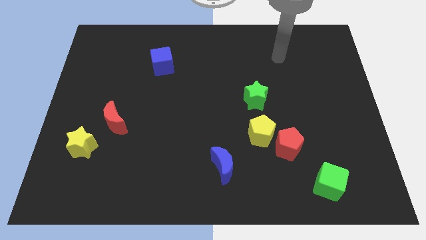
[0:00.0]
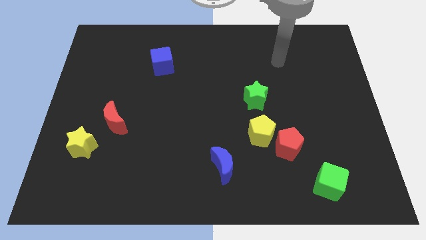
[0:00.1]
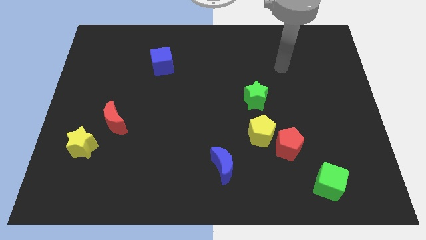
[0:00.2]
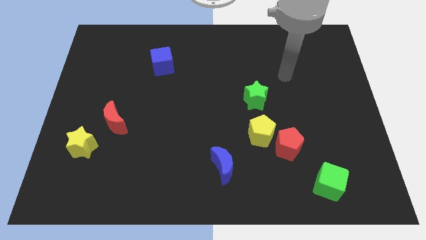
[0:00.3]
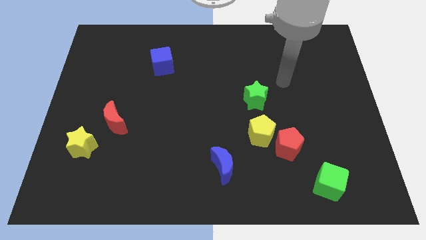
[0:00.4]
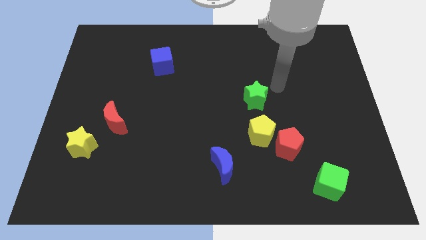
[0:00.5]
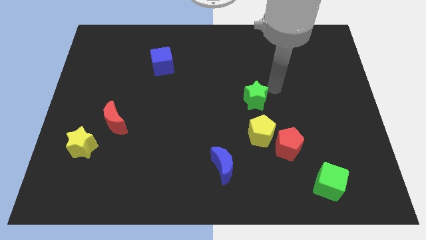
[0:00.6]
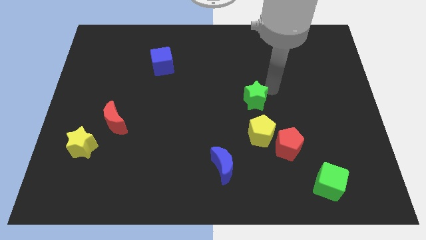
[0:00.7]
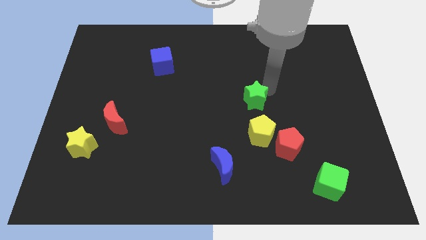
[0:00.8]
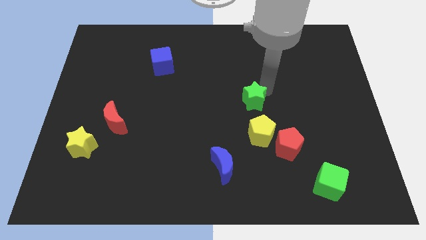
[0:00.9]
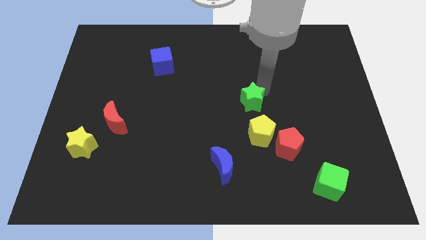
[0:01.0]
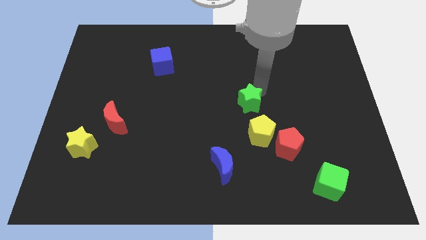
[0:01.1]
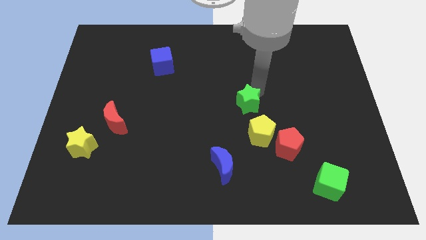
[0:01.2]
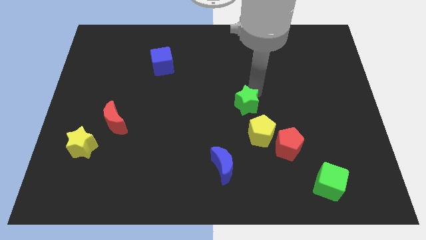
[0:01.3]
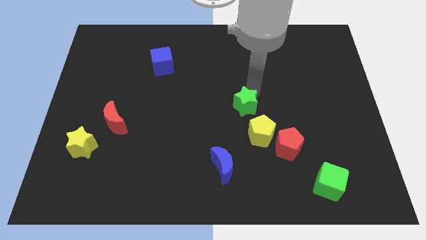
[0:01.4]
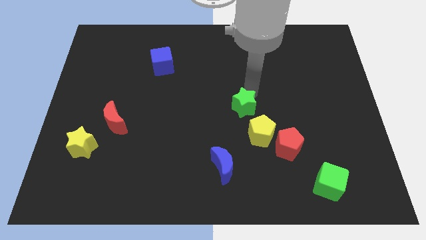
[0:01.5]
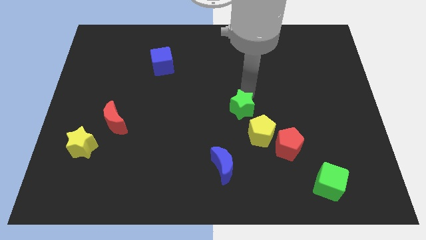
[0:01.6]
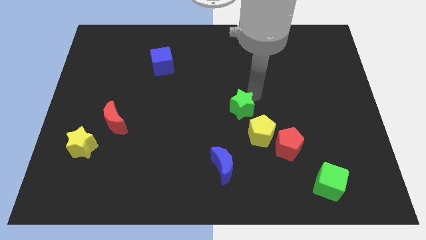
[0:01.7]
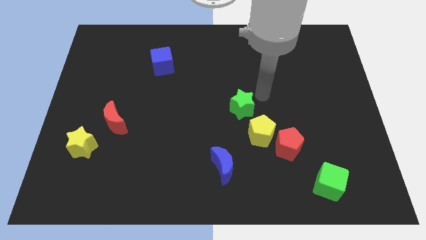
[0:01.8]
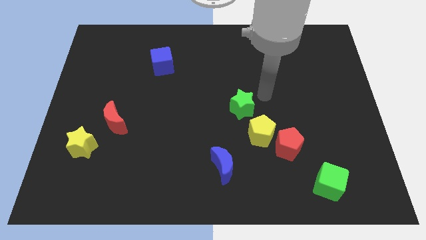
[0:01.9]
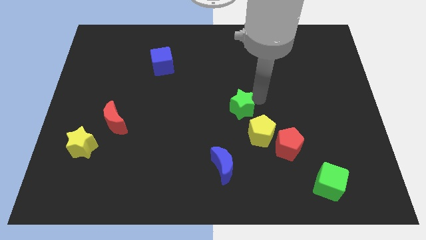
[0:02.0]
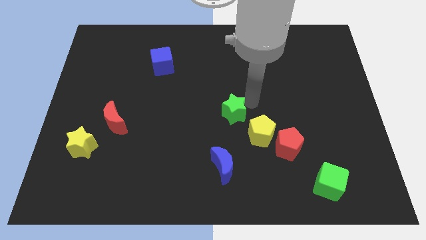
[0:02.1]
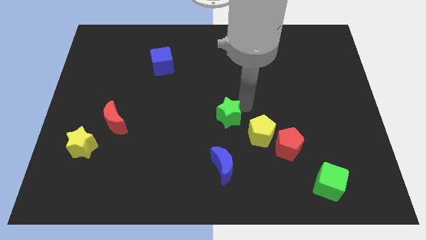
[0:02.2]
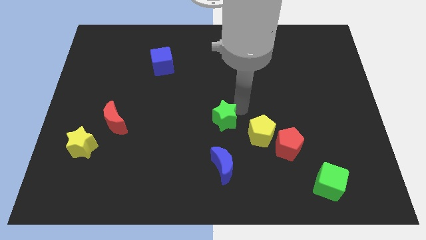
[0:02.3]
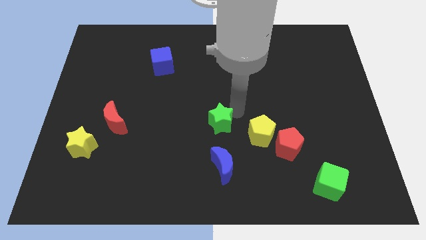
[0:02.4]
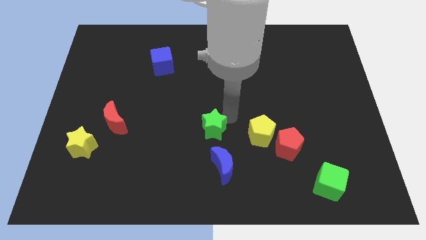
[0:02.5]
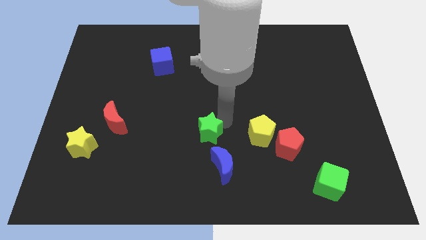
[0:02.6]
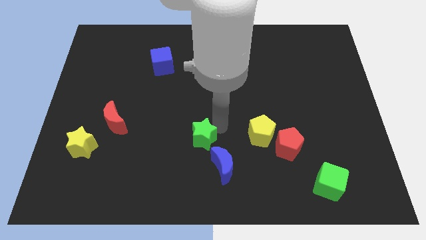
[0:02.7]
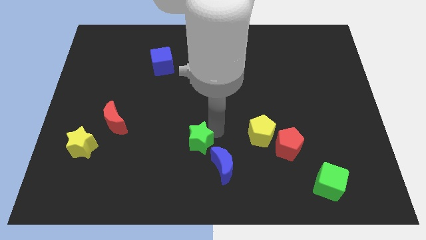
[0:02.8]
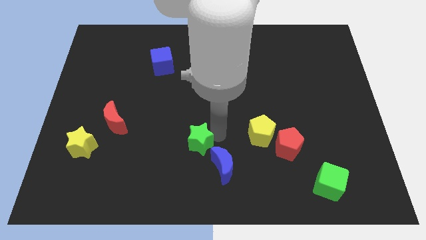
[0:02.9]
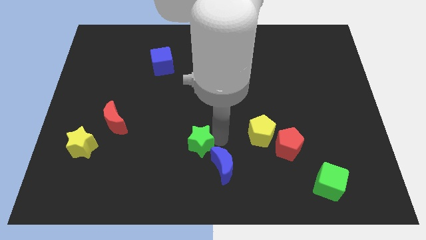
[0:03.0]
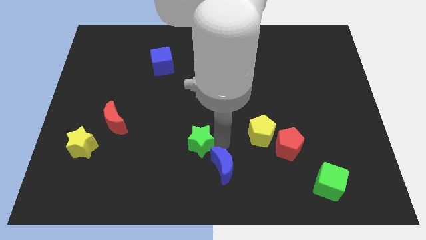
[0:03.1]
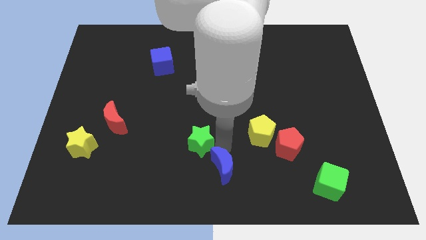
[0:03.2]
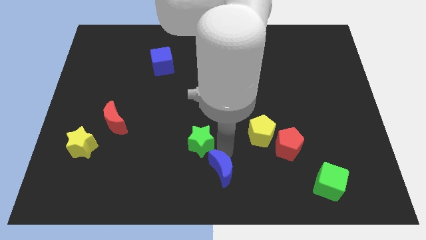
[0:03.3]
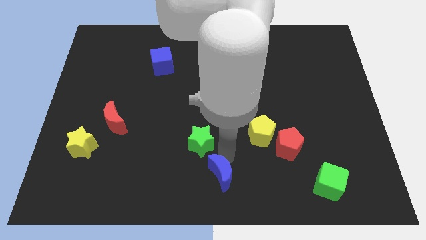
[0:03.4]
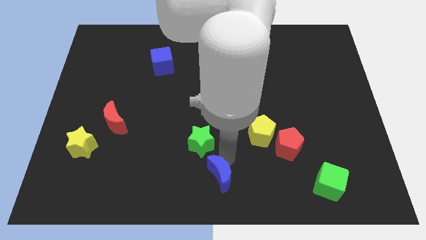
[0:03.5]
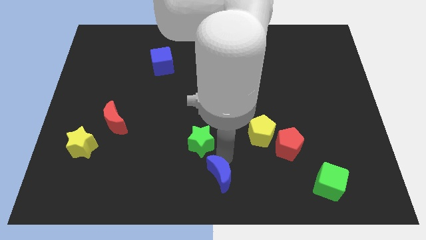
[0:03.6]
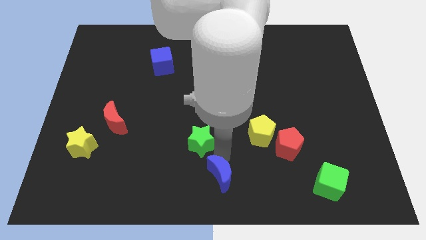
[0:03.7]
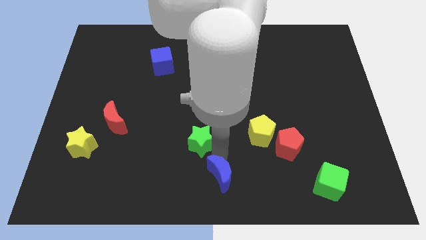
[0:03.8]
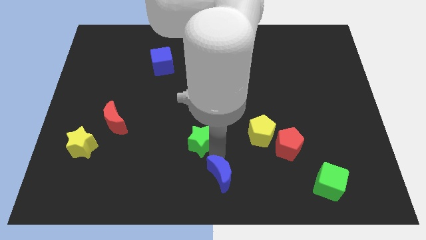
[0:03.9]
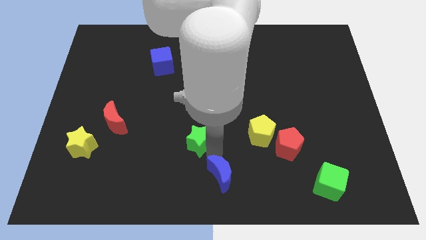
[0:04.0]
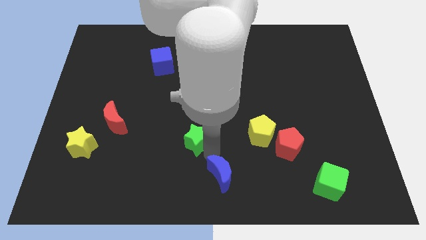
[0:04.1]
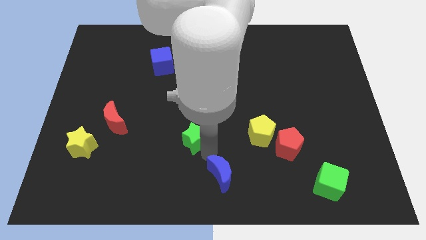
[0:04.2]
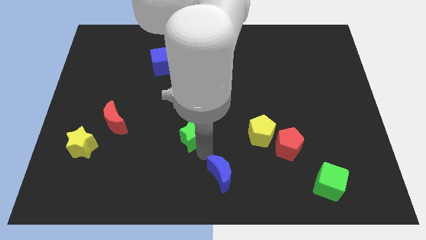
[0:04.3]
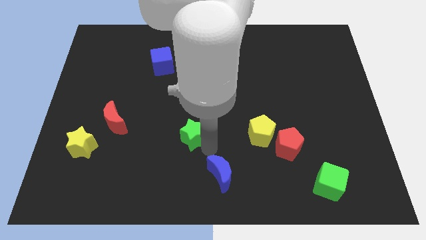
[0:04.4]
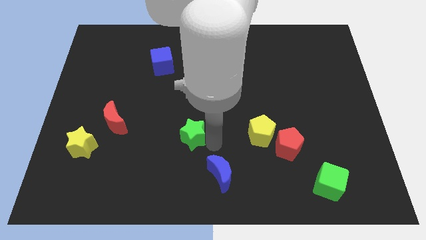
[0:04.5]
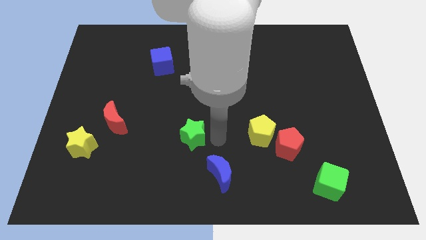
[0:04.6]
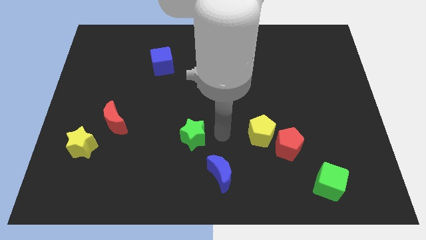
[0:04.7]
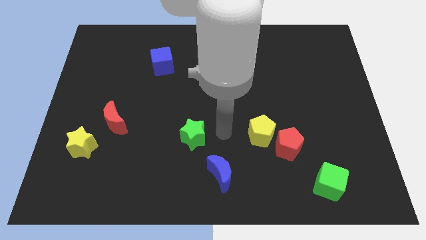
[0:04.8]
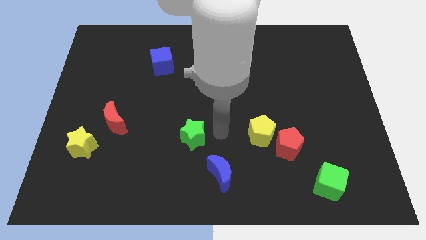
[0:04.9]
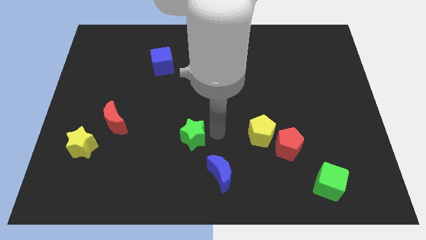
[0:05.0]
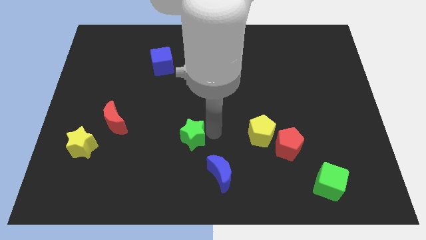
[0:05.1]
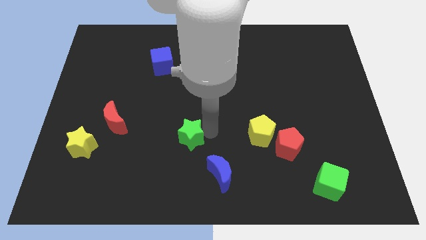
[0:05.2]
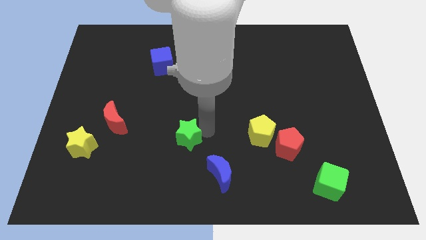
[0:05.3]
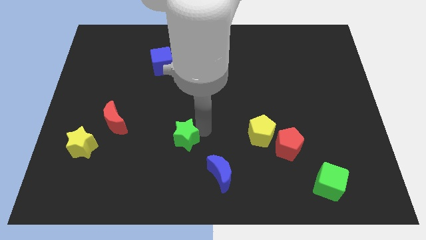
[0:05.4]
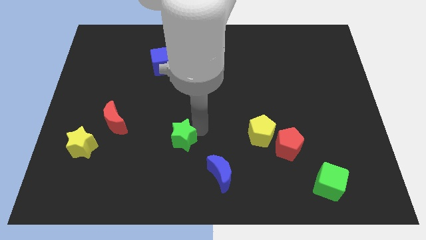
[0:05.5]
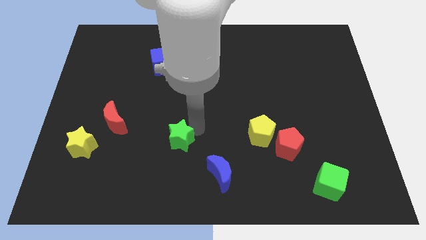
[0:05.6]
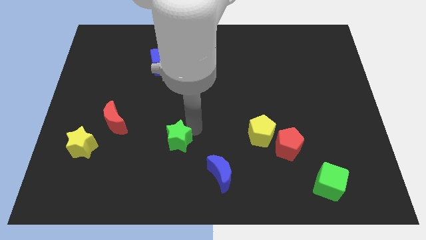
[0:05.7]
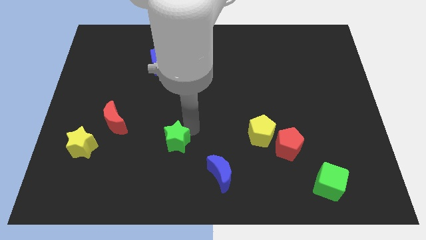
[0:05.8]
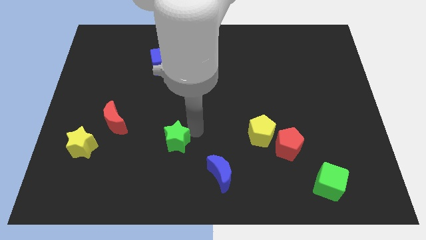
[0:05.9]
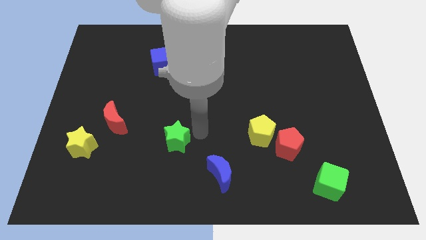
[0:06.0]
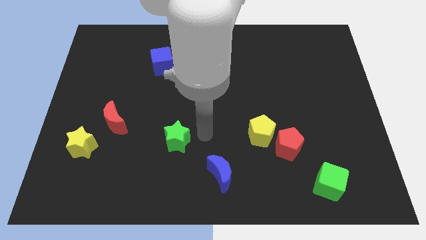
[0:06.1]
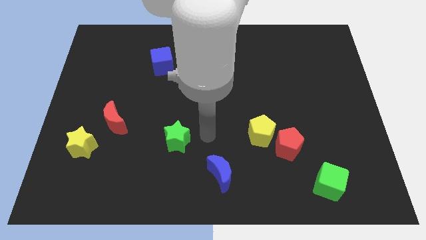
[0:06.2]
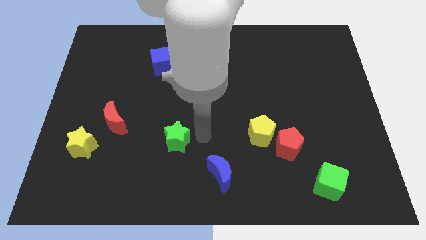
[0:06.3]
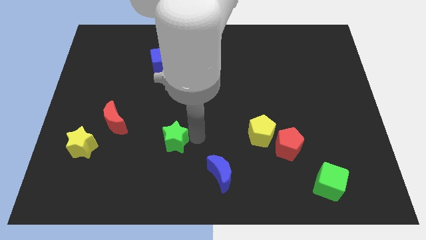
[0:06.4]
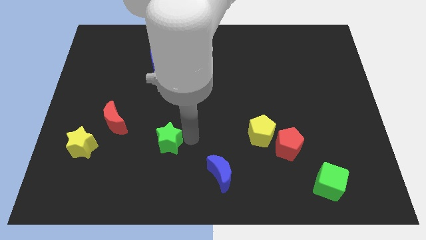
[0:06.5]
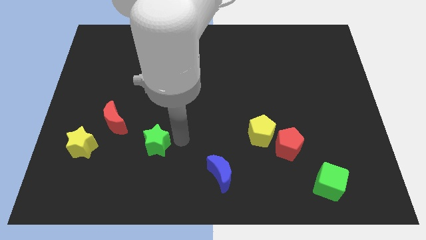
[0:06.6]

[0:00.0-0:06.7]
slide the green star to the right of the yellow star
